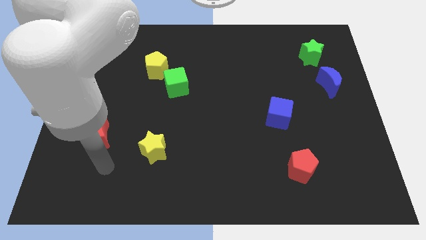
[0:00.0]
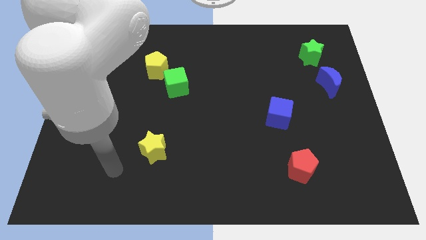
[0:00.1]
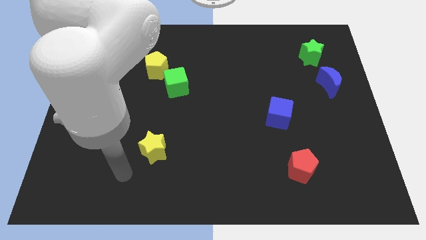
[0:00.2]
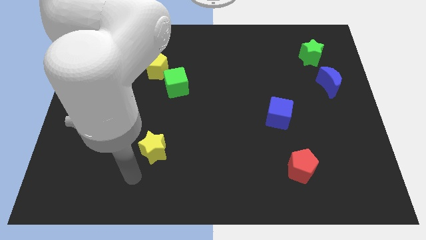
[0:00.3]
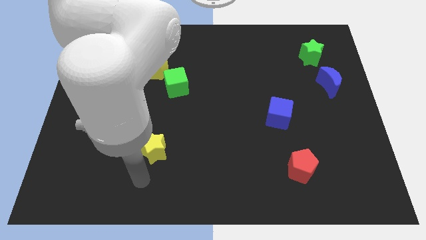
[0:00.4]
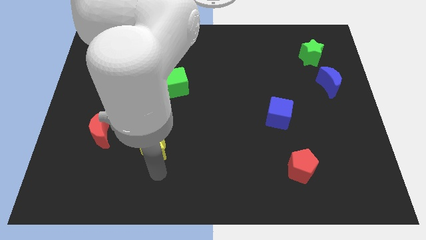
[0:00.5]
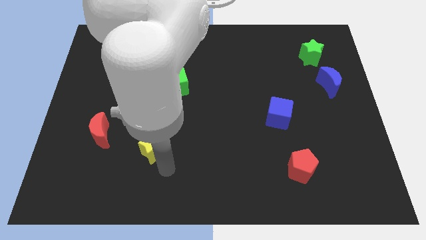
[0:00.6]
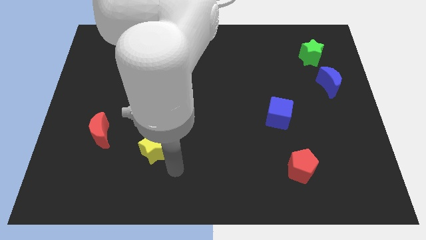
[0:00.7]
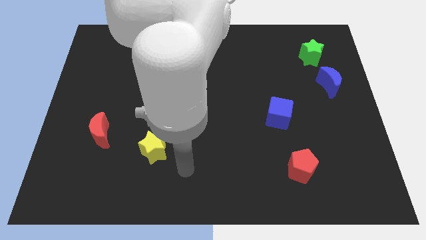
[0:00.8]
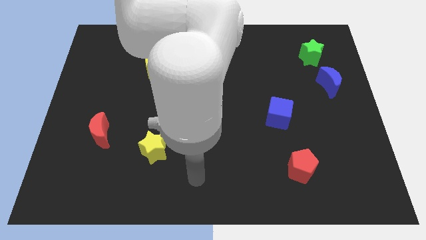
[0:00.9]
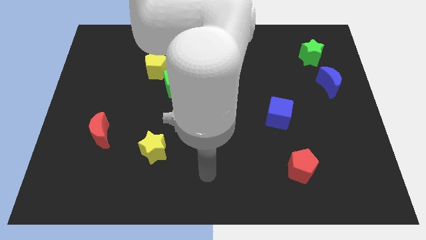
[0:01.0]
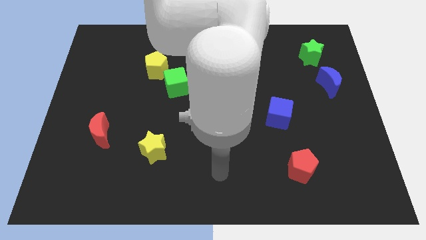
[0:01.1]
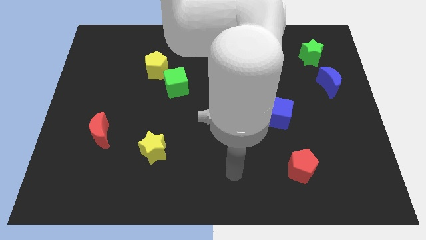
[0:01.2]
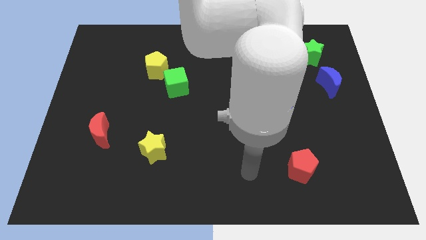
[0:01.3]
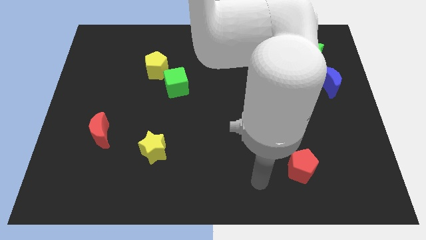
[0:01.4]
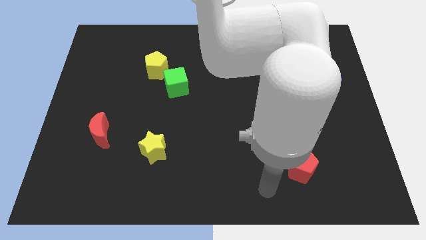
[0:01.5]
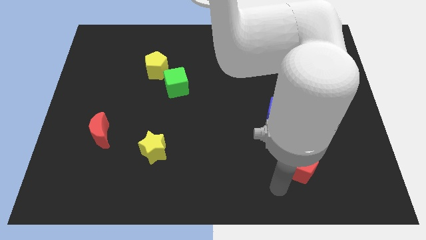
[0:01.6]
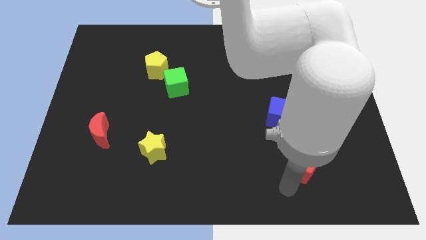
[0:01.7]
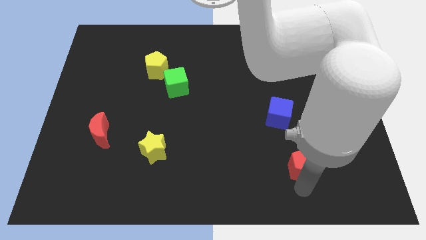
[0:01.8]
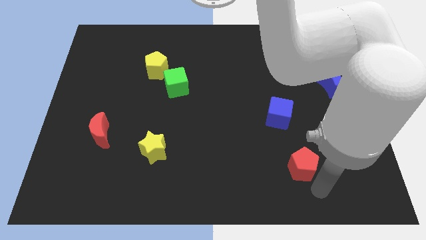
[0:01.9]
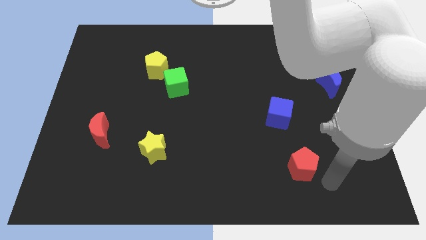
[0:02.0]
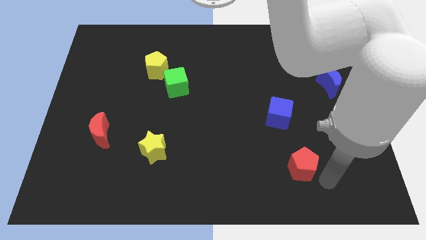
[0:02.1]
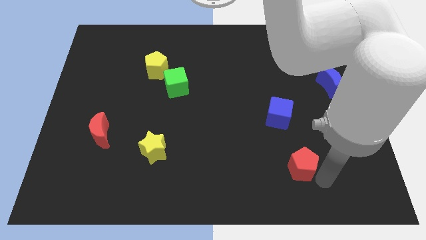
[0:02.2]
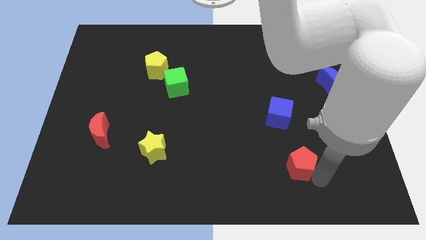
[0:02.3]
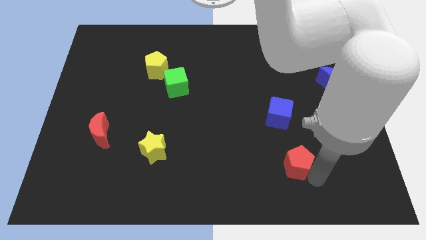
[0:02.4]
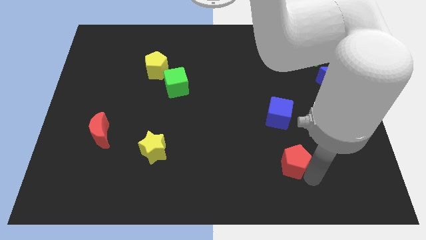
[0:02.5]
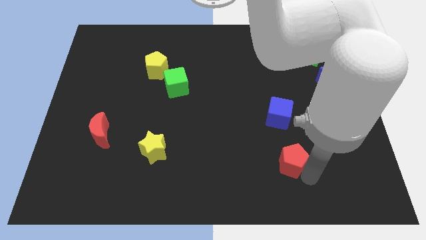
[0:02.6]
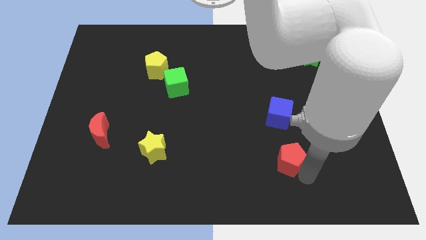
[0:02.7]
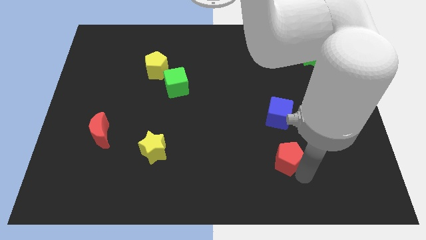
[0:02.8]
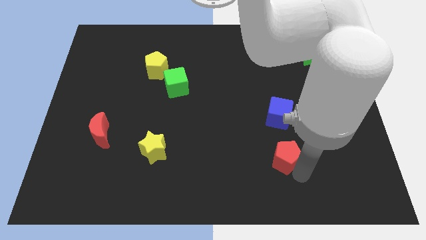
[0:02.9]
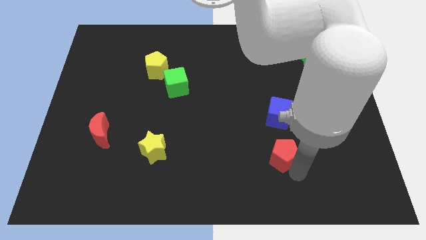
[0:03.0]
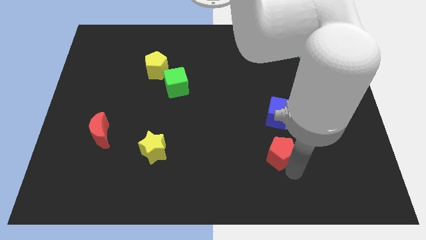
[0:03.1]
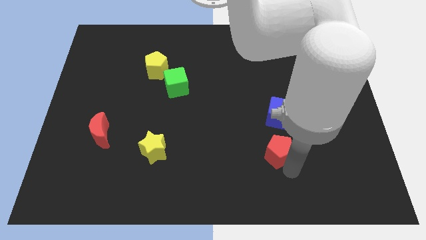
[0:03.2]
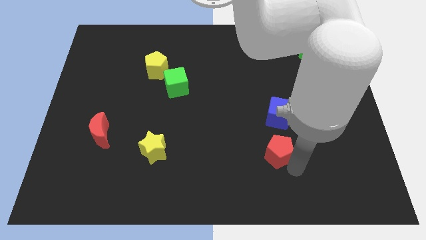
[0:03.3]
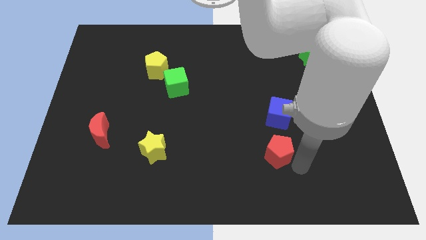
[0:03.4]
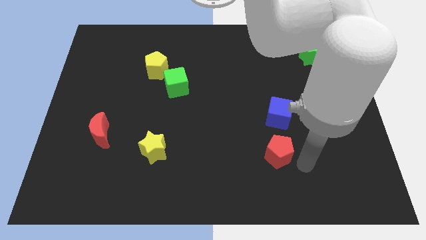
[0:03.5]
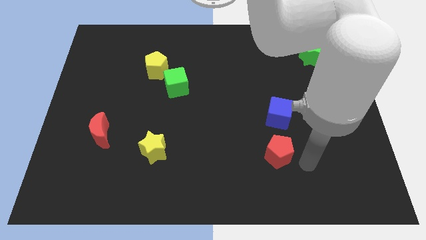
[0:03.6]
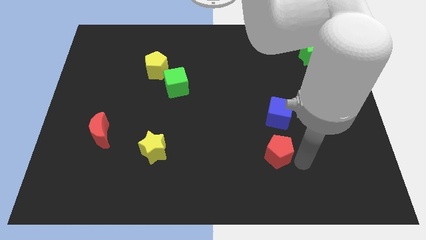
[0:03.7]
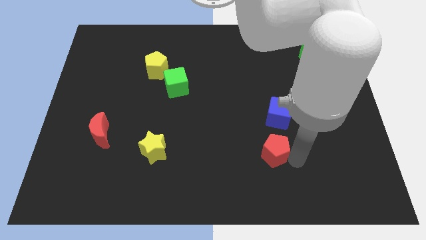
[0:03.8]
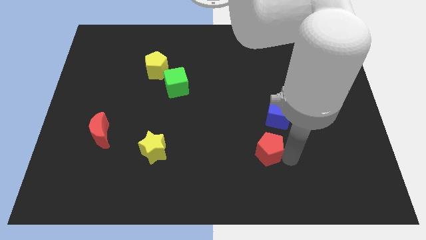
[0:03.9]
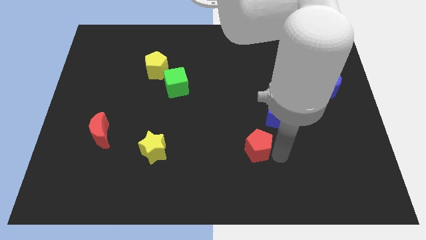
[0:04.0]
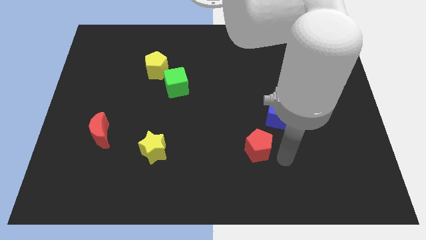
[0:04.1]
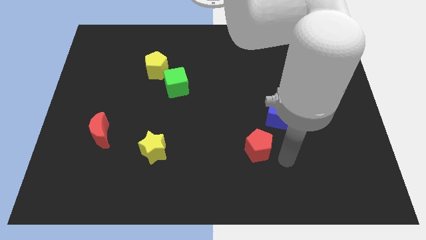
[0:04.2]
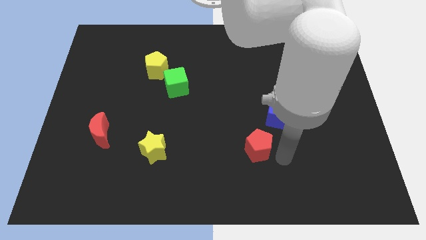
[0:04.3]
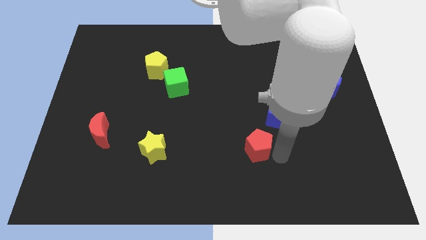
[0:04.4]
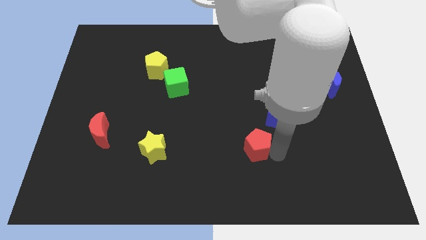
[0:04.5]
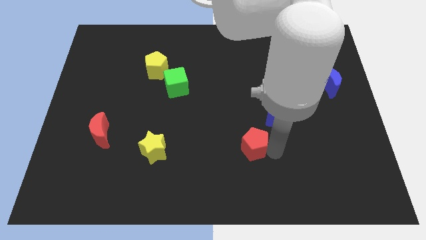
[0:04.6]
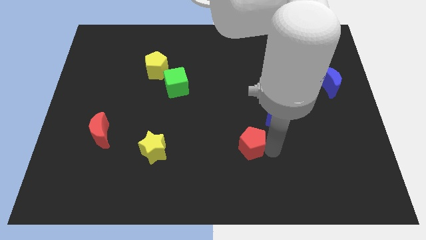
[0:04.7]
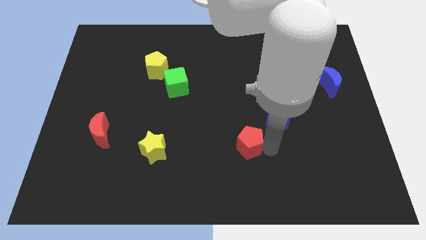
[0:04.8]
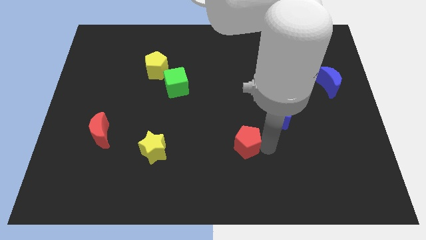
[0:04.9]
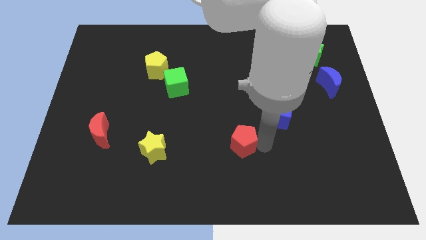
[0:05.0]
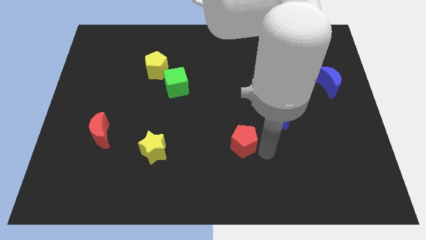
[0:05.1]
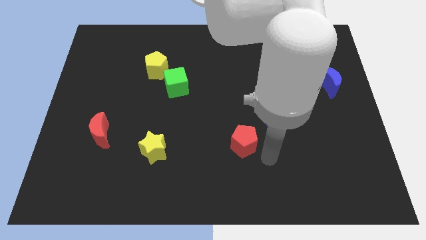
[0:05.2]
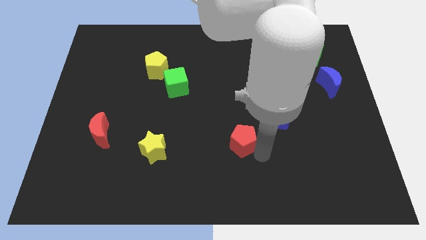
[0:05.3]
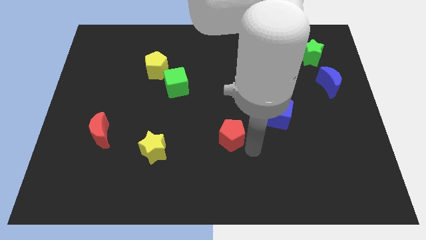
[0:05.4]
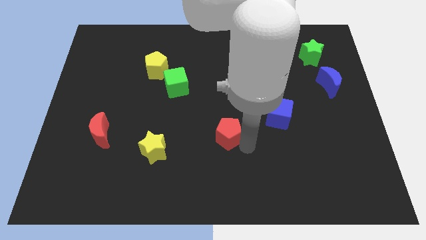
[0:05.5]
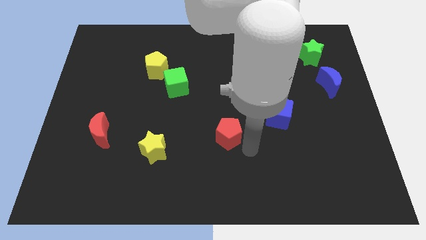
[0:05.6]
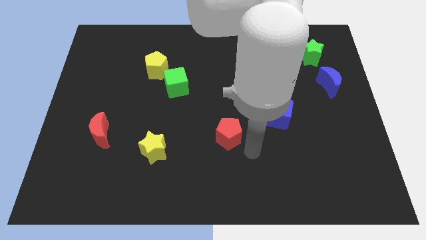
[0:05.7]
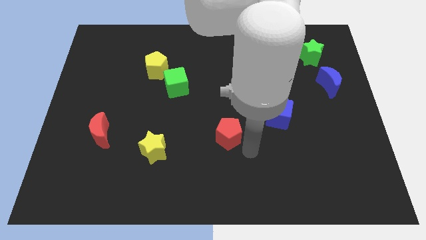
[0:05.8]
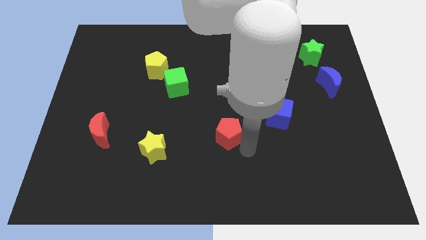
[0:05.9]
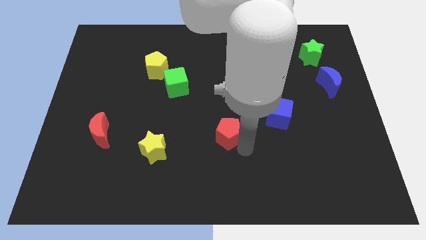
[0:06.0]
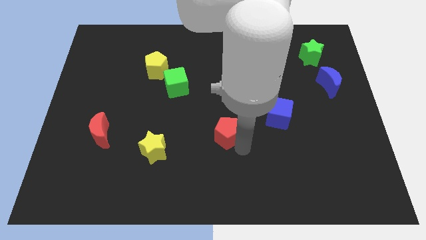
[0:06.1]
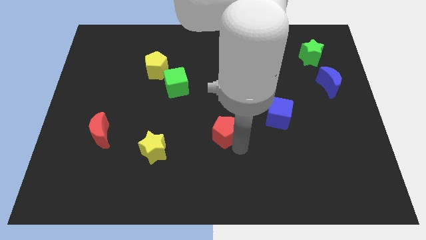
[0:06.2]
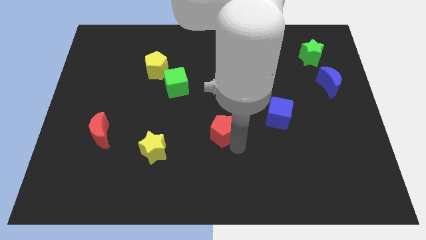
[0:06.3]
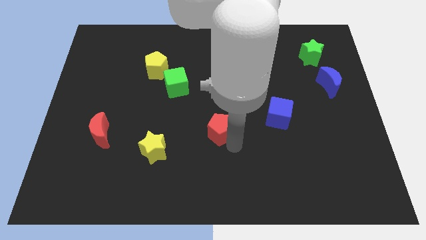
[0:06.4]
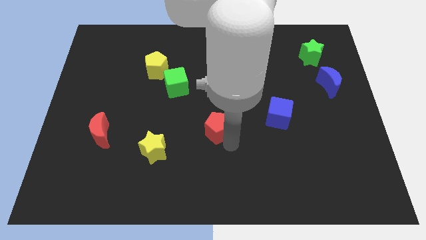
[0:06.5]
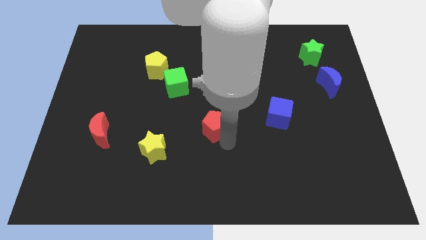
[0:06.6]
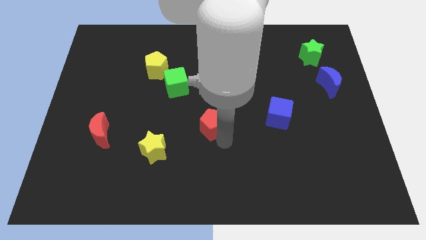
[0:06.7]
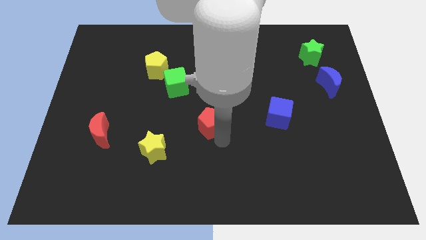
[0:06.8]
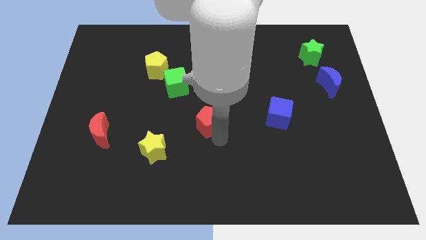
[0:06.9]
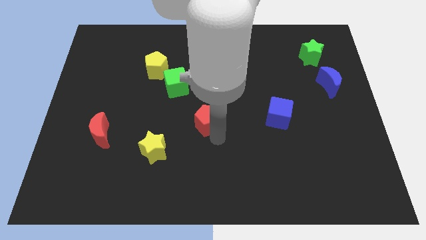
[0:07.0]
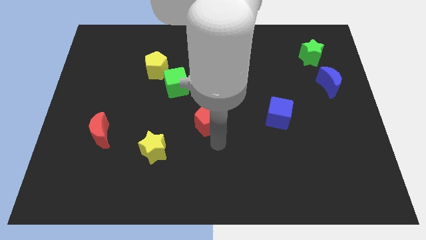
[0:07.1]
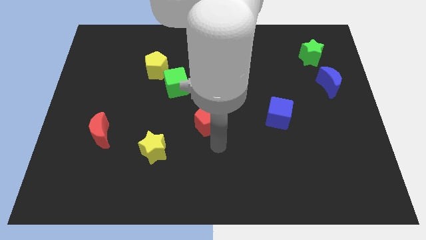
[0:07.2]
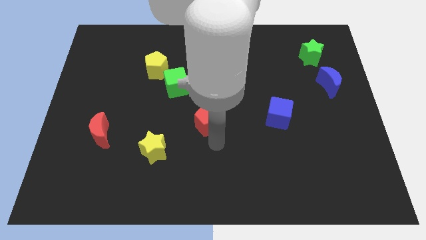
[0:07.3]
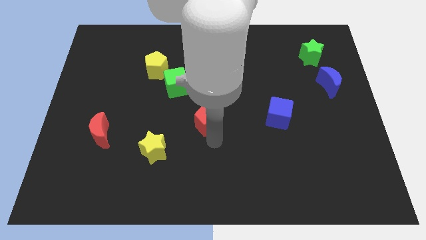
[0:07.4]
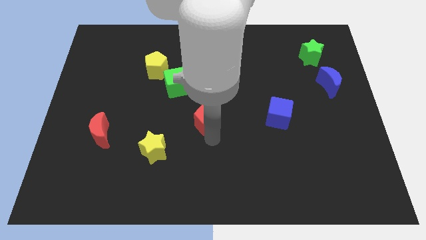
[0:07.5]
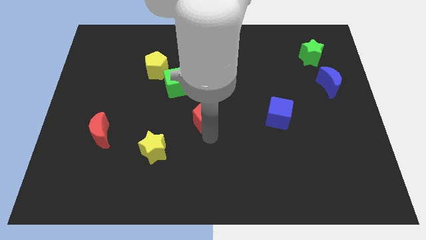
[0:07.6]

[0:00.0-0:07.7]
put the red pentagon to the bottom right side of the green cube

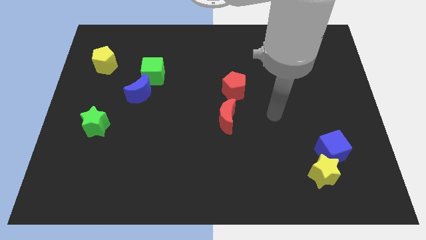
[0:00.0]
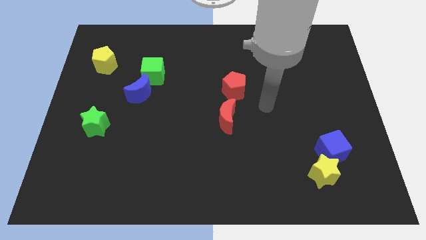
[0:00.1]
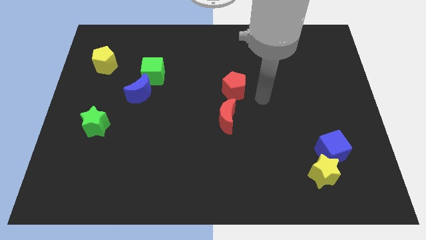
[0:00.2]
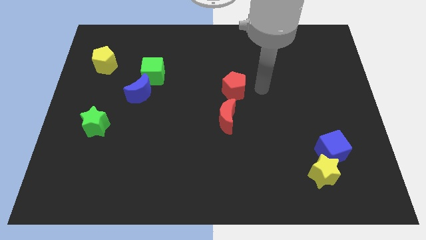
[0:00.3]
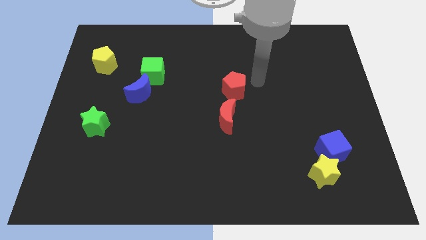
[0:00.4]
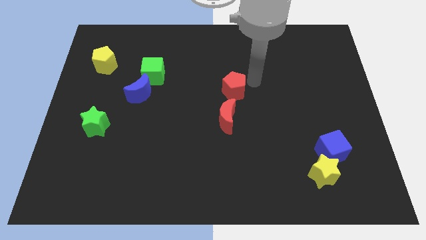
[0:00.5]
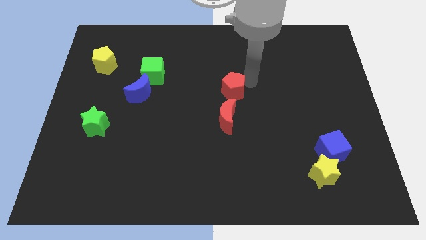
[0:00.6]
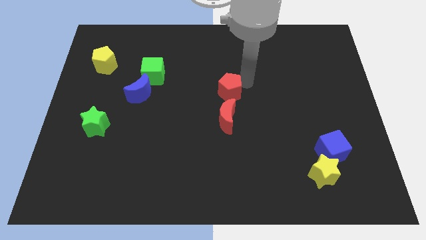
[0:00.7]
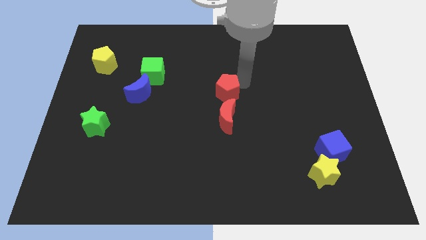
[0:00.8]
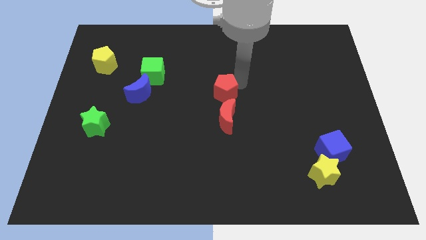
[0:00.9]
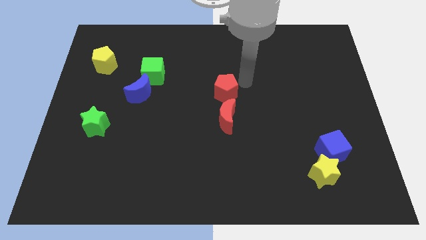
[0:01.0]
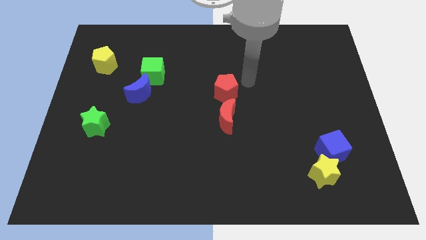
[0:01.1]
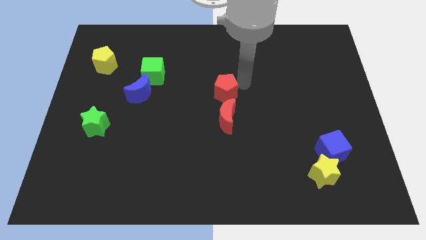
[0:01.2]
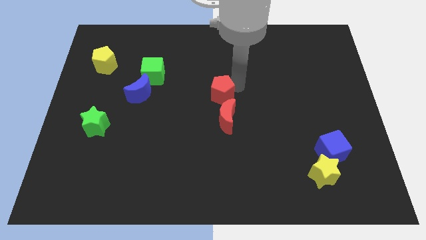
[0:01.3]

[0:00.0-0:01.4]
slide the red pentagon to the top left side of the red moon
